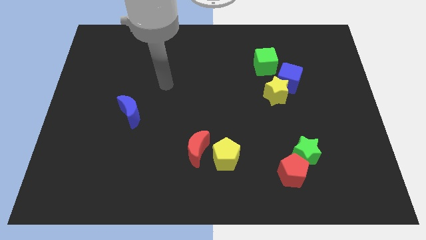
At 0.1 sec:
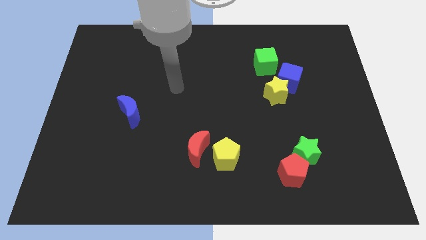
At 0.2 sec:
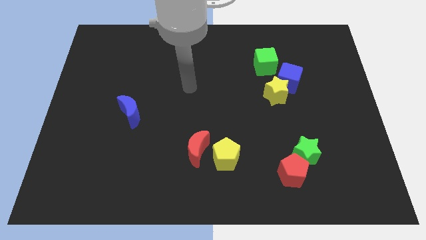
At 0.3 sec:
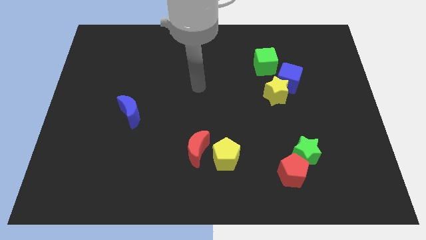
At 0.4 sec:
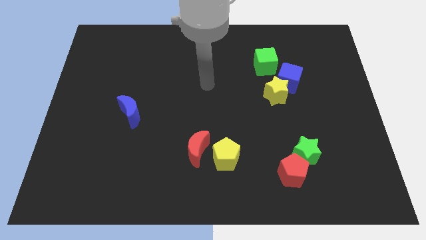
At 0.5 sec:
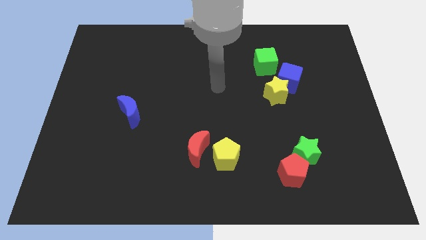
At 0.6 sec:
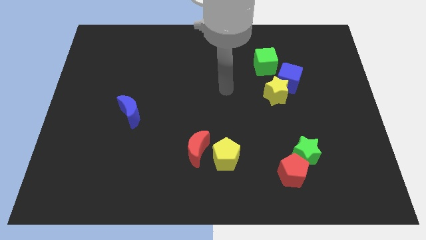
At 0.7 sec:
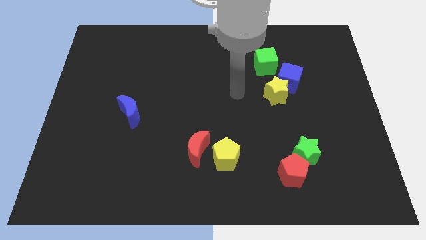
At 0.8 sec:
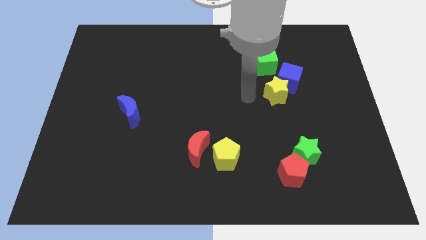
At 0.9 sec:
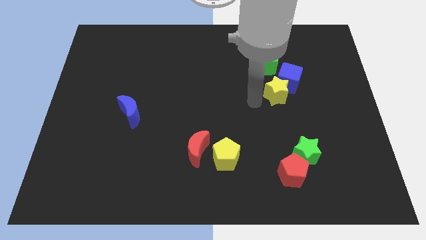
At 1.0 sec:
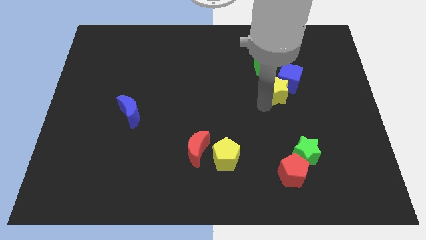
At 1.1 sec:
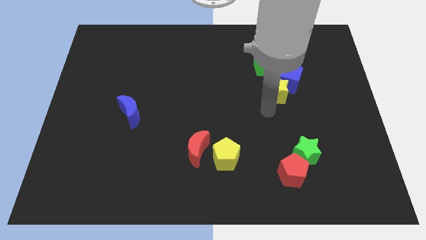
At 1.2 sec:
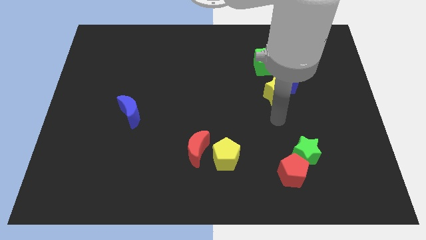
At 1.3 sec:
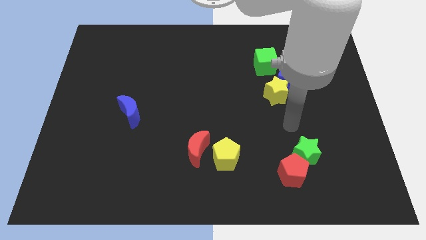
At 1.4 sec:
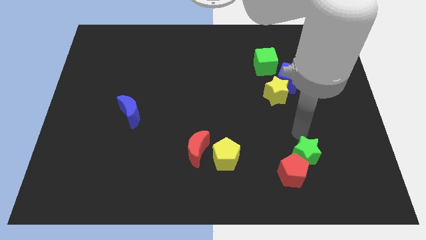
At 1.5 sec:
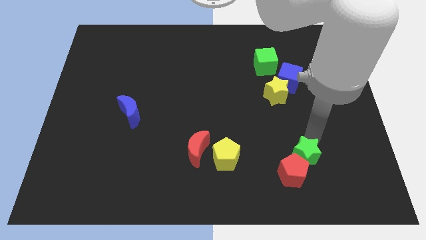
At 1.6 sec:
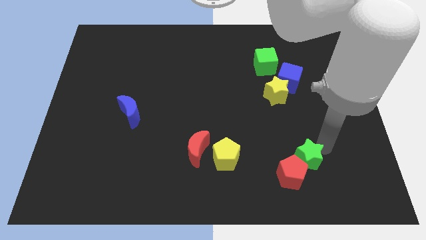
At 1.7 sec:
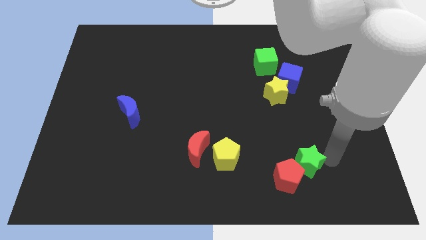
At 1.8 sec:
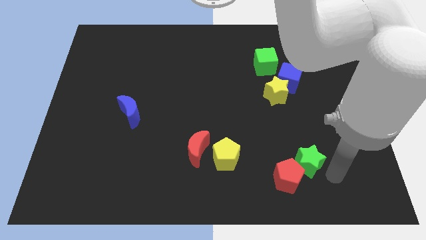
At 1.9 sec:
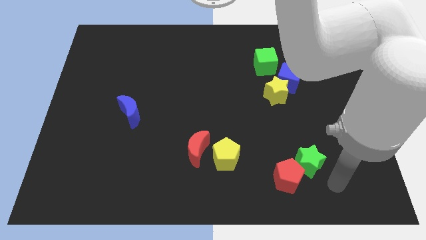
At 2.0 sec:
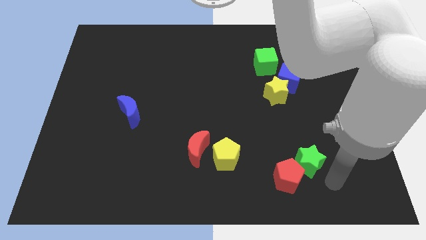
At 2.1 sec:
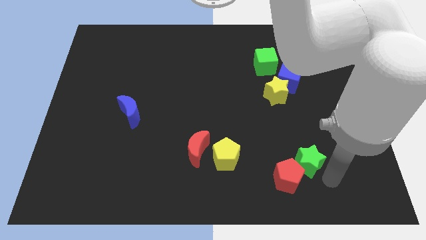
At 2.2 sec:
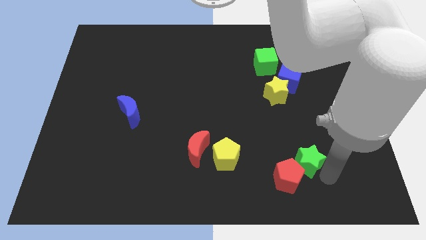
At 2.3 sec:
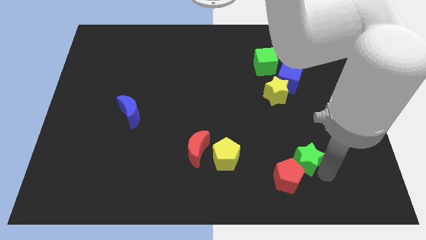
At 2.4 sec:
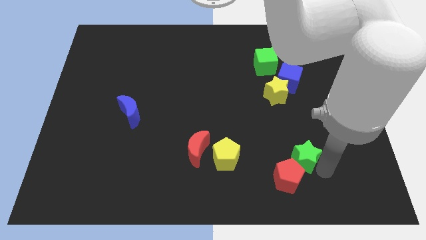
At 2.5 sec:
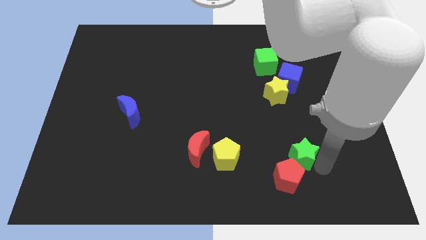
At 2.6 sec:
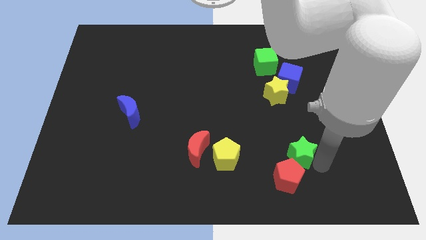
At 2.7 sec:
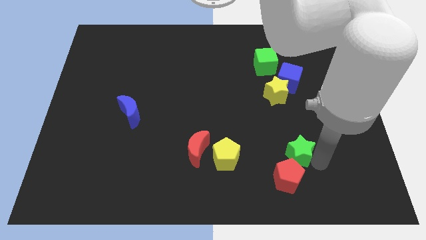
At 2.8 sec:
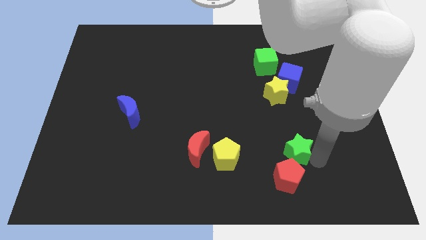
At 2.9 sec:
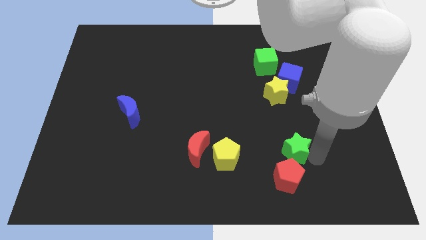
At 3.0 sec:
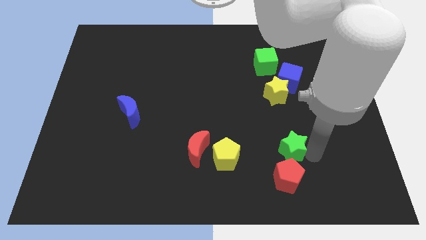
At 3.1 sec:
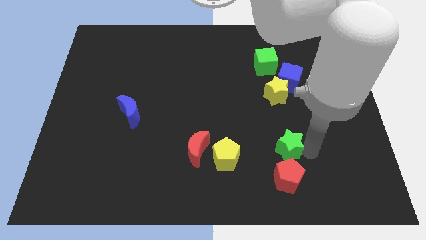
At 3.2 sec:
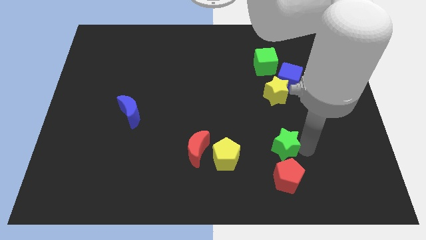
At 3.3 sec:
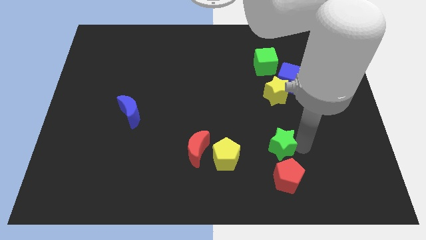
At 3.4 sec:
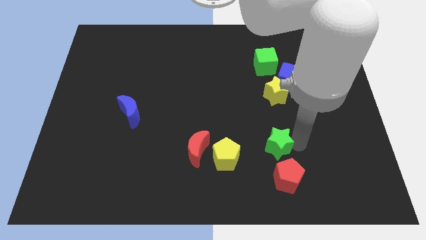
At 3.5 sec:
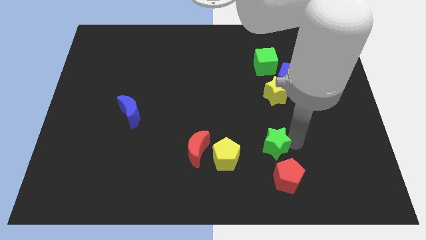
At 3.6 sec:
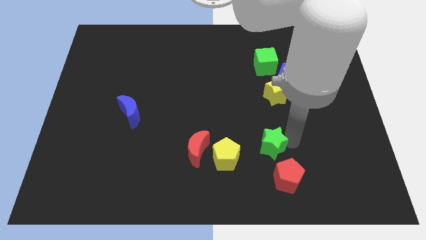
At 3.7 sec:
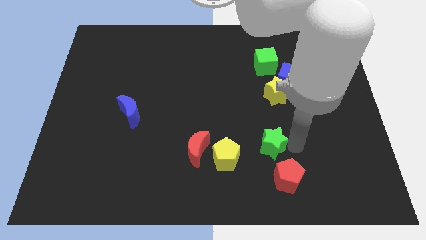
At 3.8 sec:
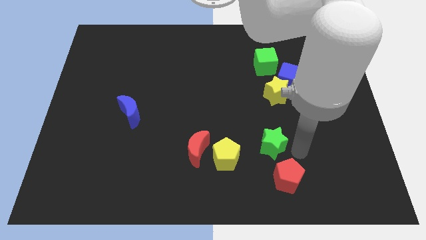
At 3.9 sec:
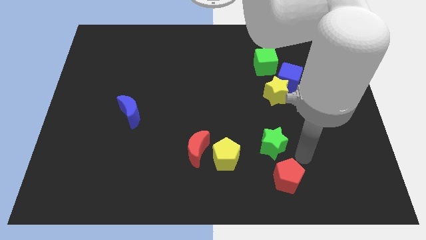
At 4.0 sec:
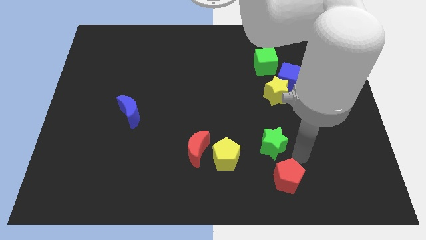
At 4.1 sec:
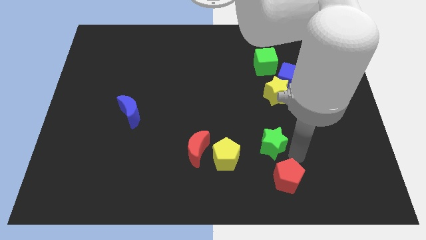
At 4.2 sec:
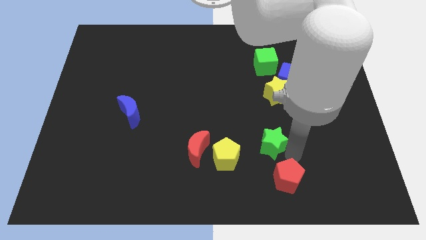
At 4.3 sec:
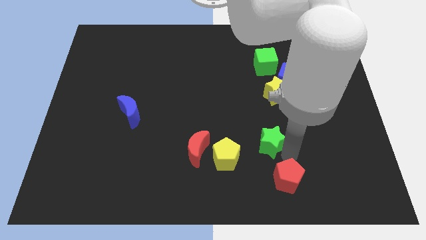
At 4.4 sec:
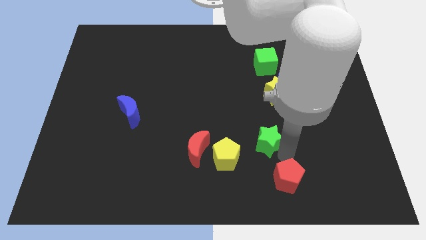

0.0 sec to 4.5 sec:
put the green star to the top right side of the yellow pentagon

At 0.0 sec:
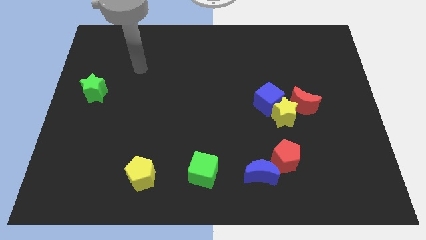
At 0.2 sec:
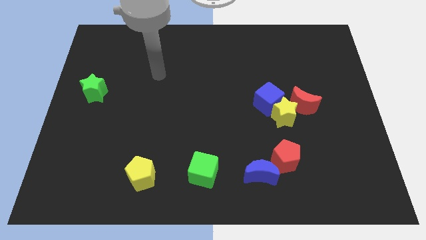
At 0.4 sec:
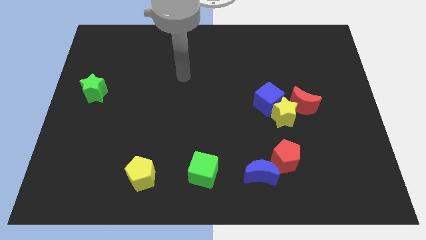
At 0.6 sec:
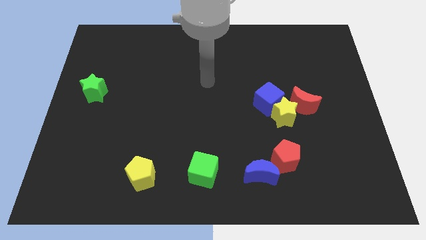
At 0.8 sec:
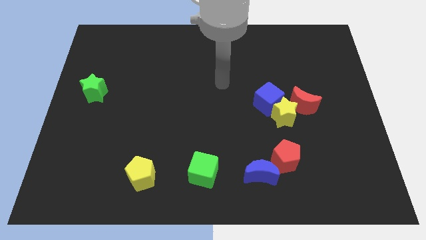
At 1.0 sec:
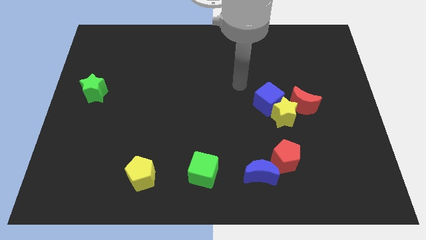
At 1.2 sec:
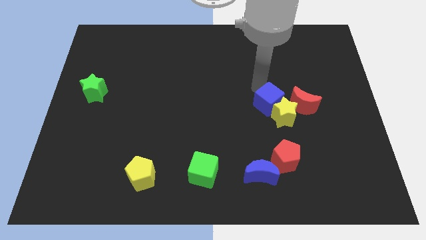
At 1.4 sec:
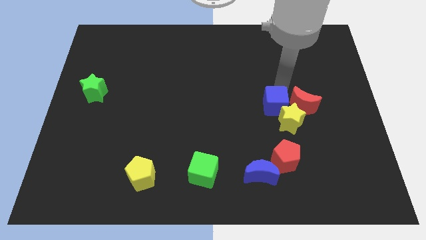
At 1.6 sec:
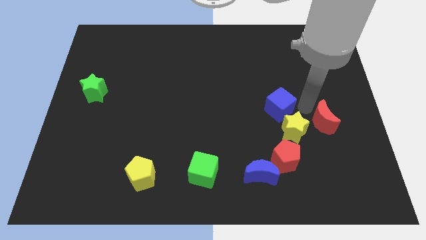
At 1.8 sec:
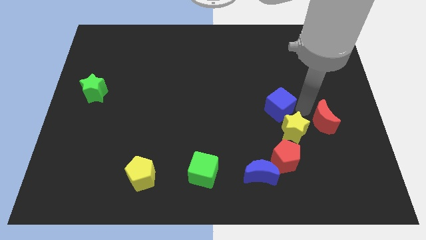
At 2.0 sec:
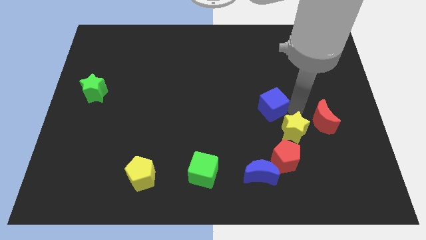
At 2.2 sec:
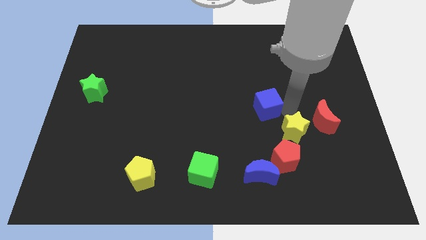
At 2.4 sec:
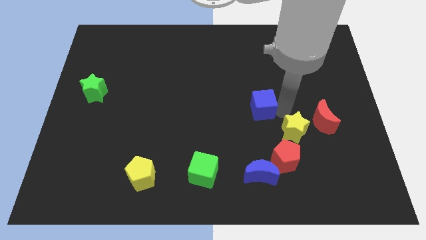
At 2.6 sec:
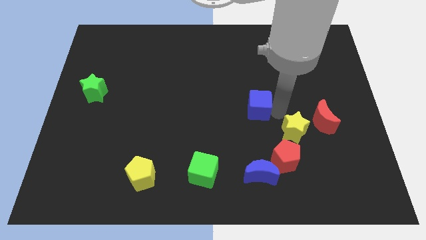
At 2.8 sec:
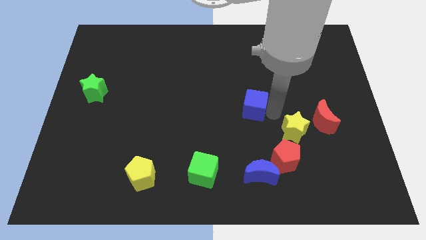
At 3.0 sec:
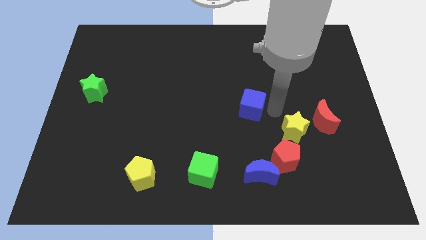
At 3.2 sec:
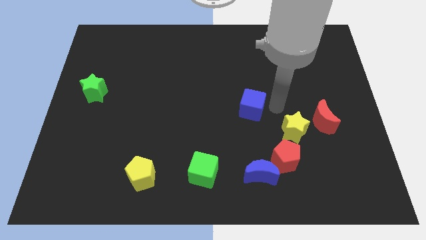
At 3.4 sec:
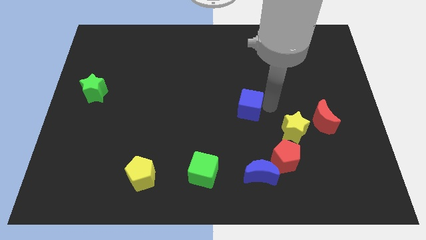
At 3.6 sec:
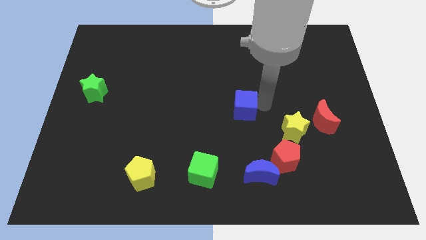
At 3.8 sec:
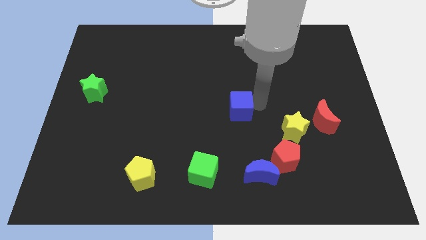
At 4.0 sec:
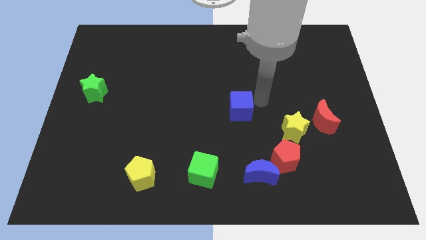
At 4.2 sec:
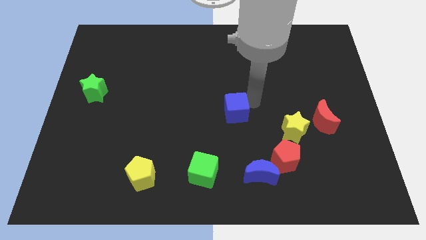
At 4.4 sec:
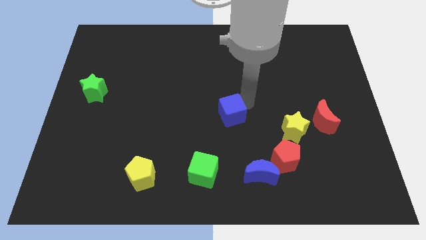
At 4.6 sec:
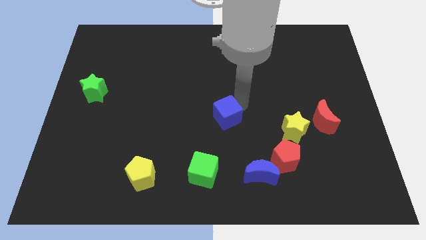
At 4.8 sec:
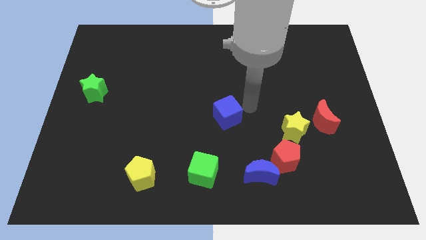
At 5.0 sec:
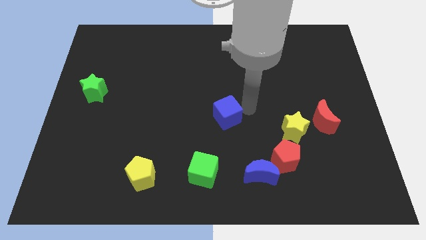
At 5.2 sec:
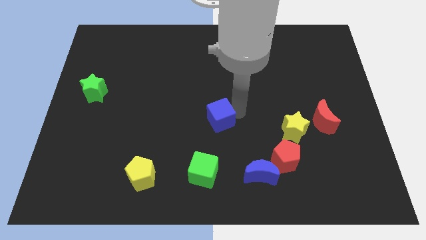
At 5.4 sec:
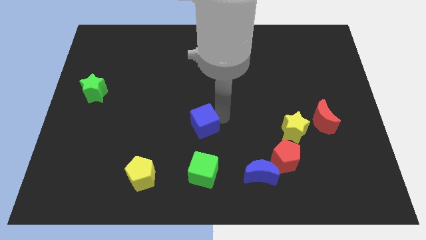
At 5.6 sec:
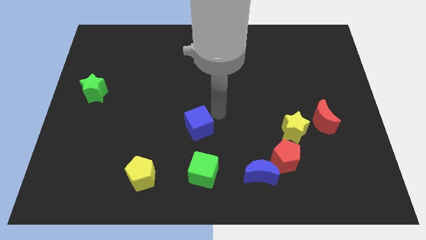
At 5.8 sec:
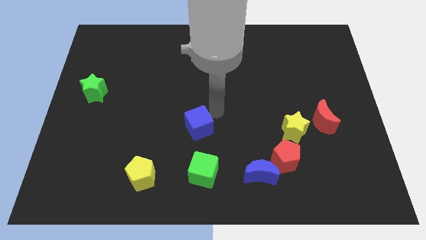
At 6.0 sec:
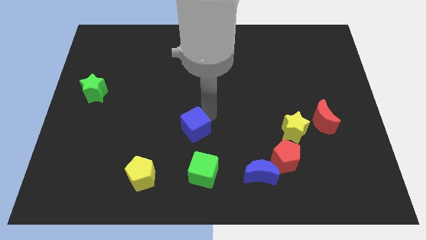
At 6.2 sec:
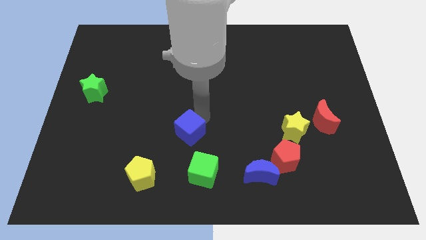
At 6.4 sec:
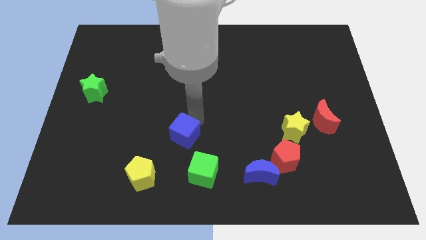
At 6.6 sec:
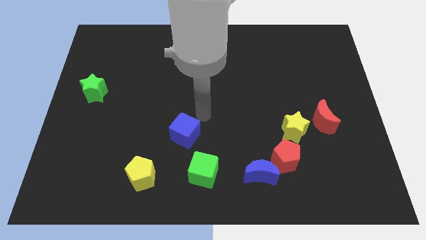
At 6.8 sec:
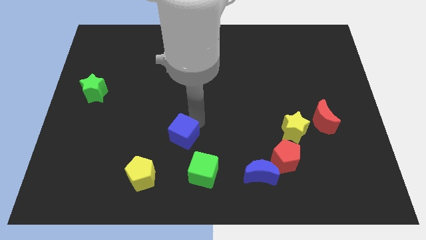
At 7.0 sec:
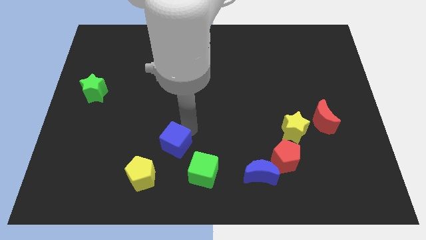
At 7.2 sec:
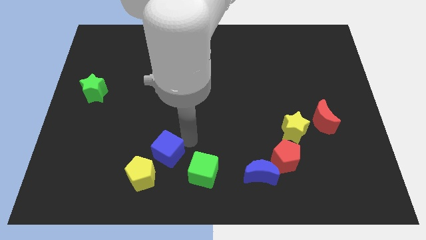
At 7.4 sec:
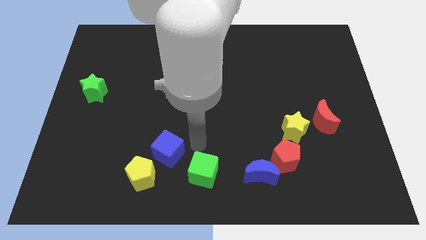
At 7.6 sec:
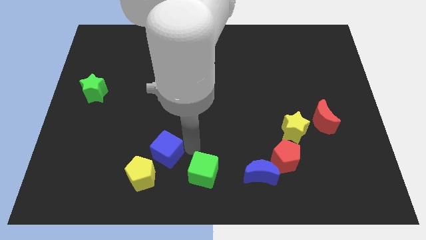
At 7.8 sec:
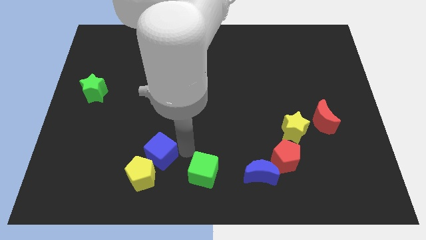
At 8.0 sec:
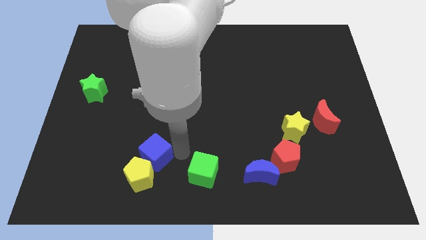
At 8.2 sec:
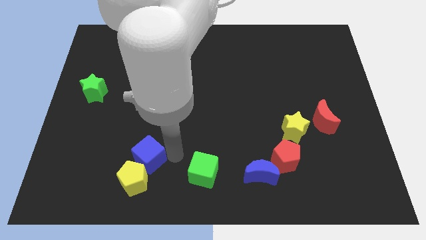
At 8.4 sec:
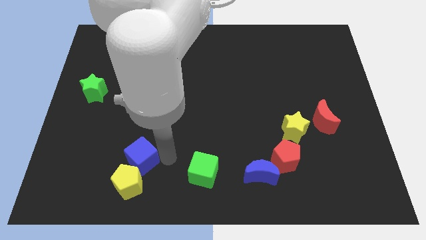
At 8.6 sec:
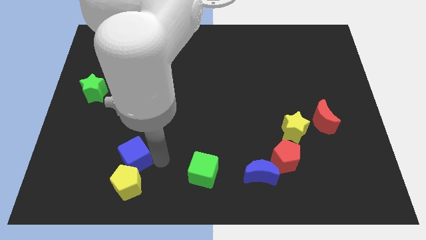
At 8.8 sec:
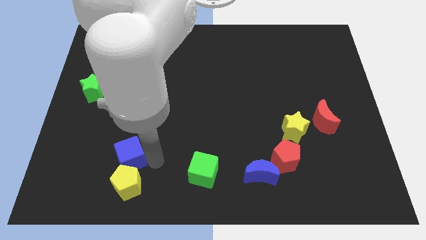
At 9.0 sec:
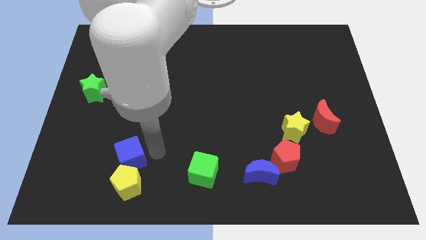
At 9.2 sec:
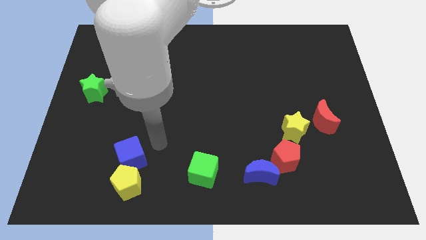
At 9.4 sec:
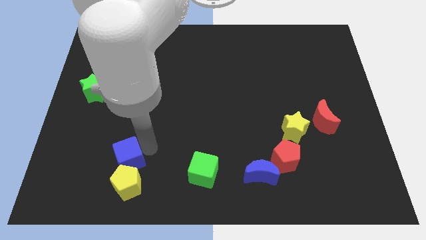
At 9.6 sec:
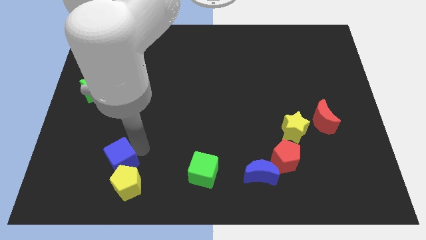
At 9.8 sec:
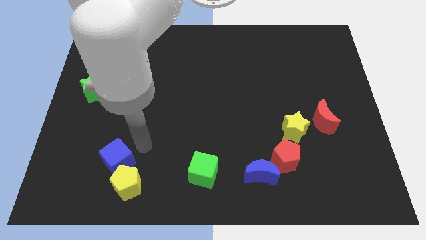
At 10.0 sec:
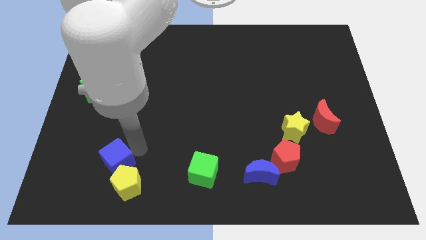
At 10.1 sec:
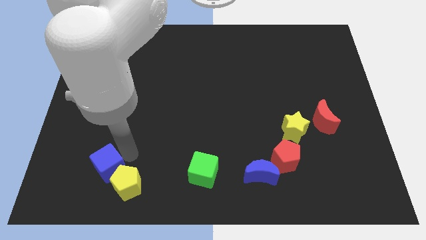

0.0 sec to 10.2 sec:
slide the blue cube just left of the yellow pentagon
